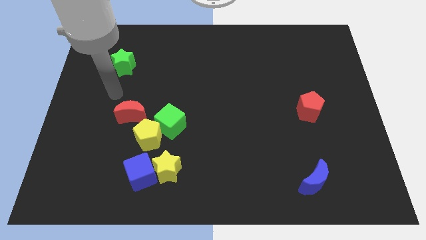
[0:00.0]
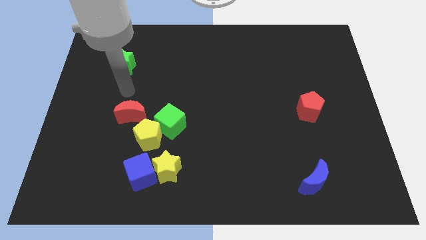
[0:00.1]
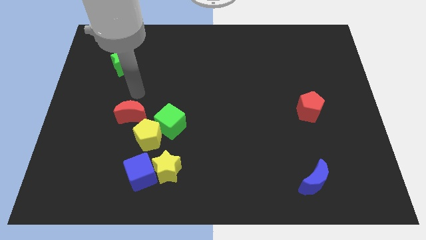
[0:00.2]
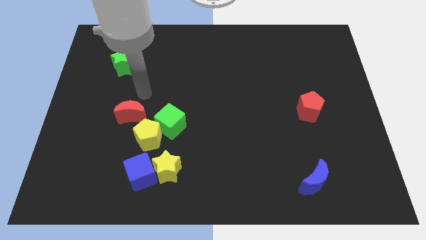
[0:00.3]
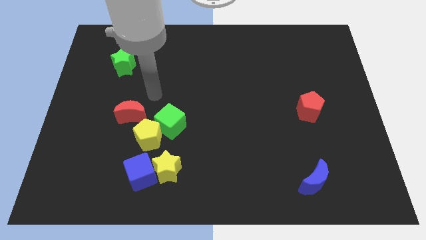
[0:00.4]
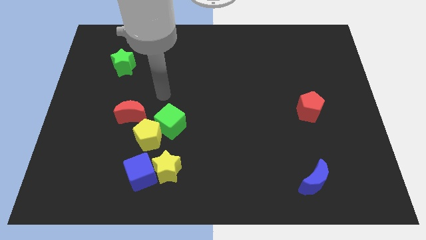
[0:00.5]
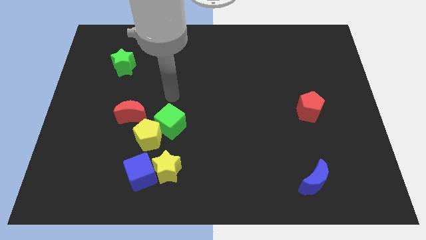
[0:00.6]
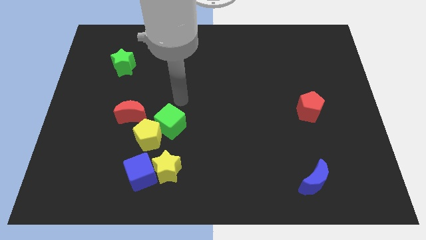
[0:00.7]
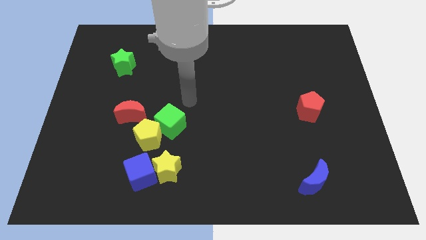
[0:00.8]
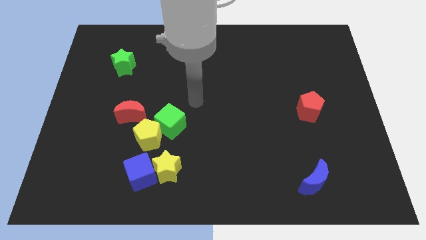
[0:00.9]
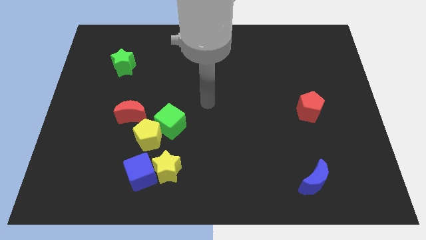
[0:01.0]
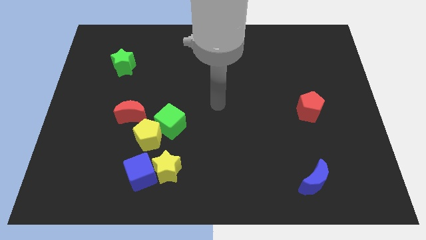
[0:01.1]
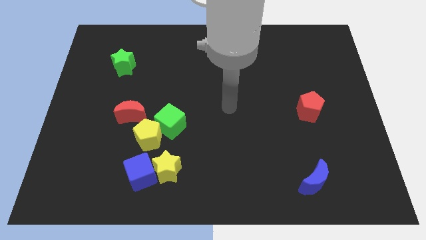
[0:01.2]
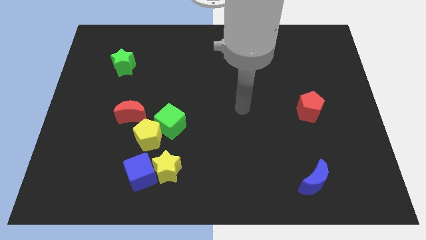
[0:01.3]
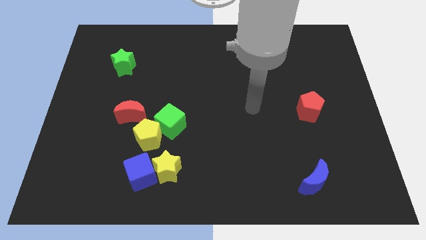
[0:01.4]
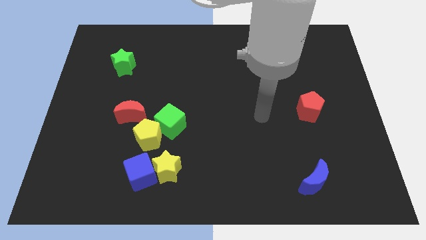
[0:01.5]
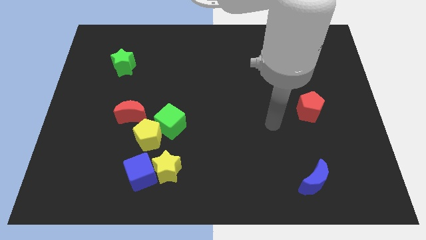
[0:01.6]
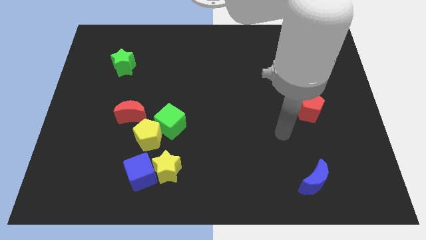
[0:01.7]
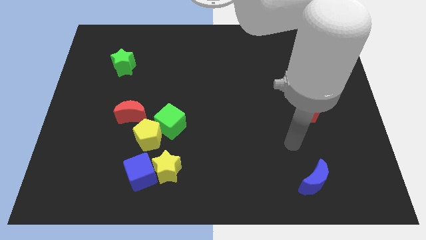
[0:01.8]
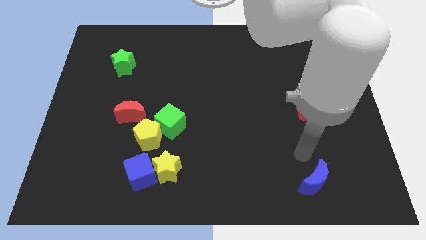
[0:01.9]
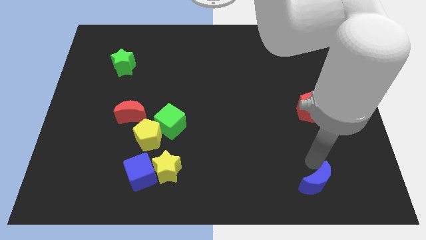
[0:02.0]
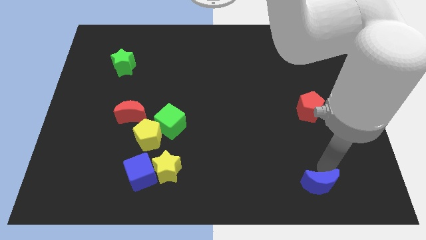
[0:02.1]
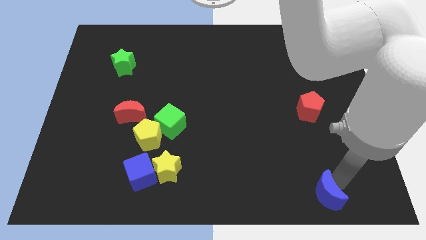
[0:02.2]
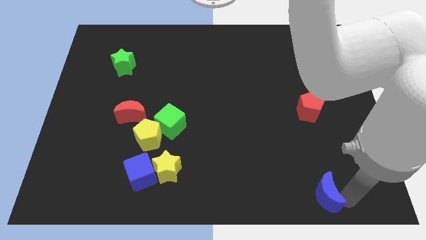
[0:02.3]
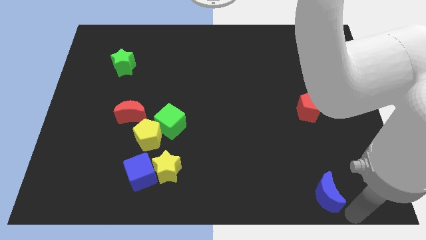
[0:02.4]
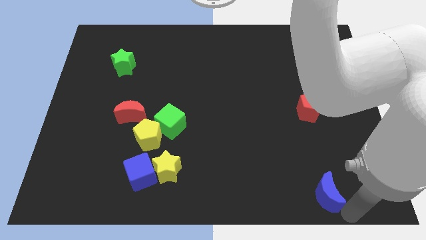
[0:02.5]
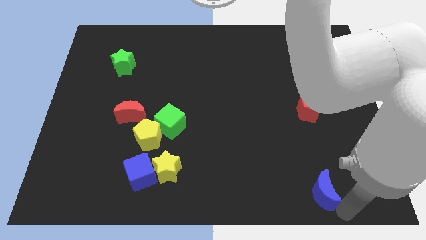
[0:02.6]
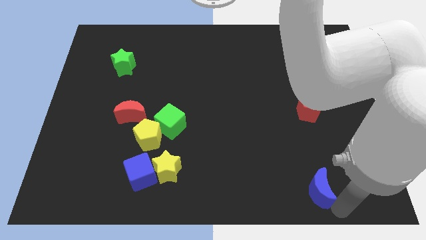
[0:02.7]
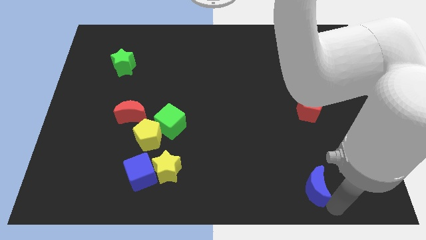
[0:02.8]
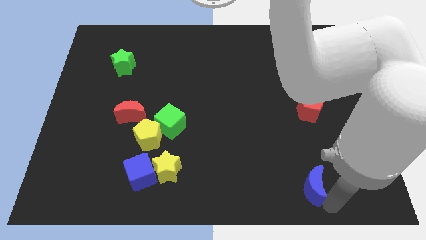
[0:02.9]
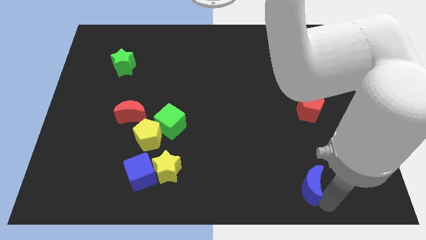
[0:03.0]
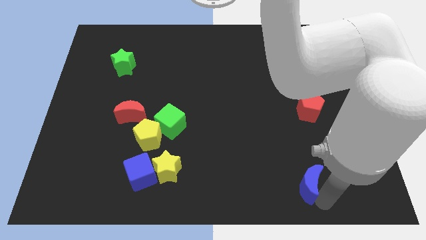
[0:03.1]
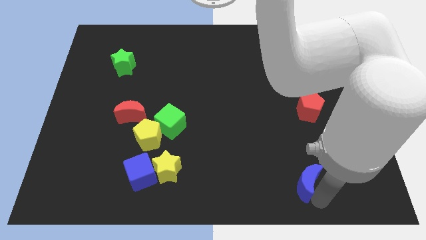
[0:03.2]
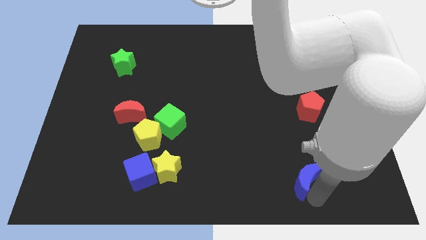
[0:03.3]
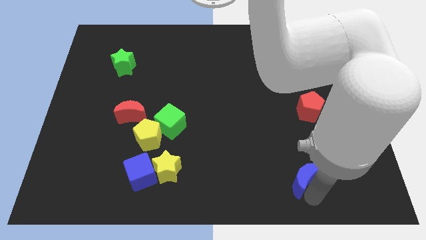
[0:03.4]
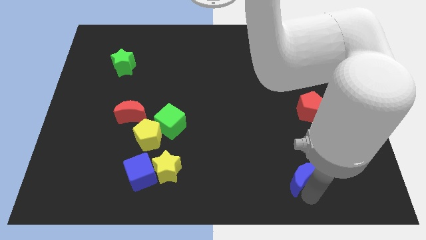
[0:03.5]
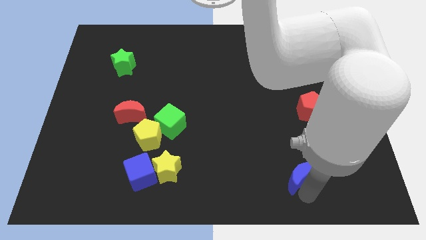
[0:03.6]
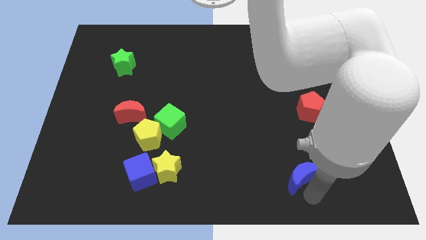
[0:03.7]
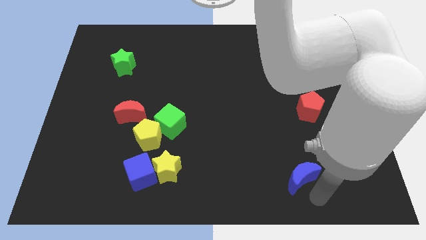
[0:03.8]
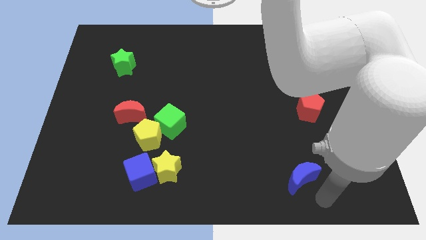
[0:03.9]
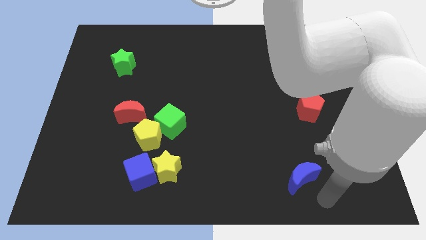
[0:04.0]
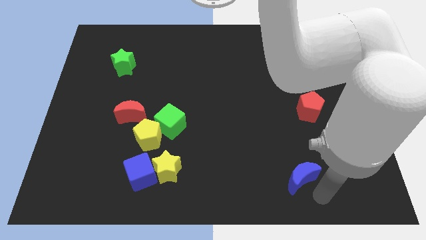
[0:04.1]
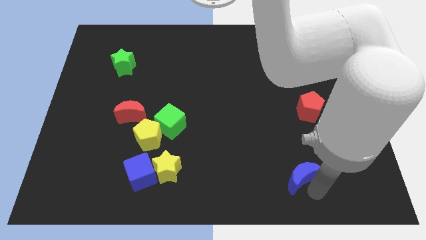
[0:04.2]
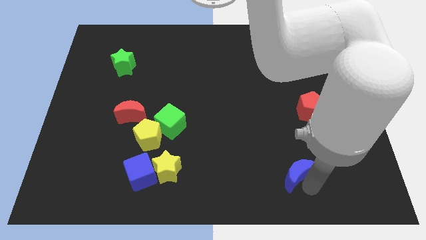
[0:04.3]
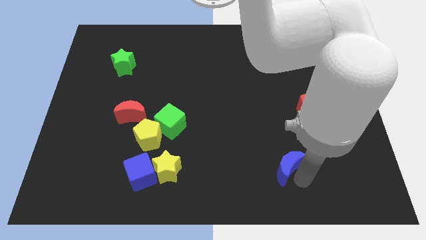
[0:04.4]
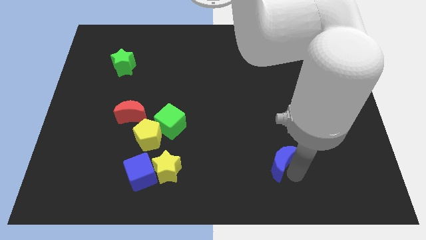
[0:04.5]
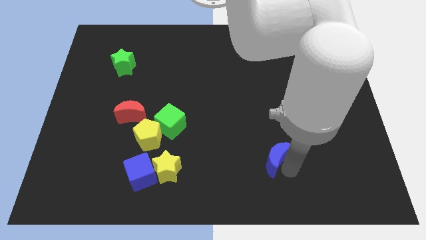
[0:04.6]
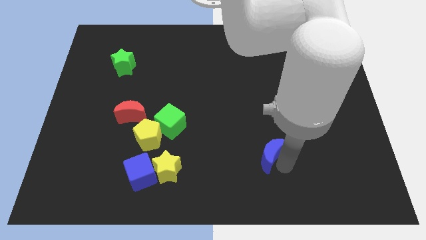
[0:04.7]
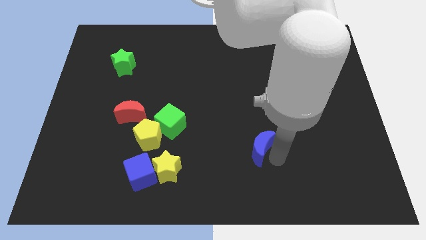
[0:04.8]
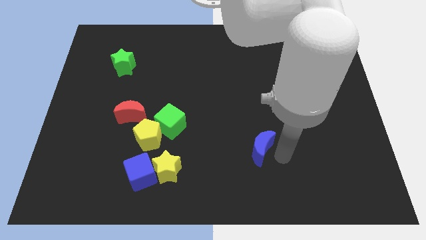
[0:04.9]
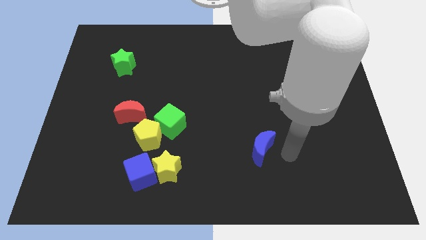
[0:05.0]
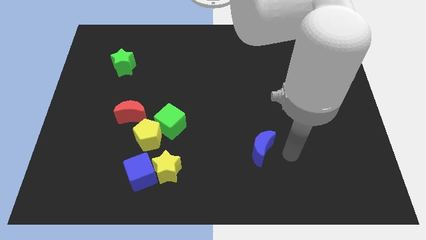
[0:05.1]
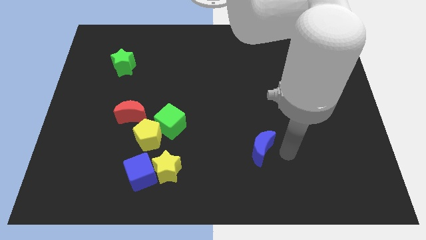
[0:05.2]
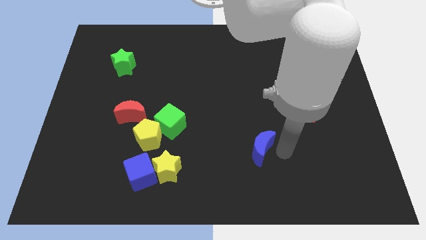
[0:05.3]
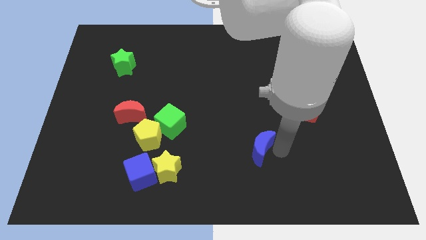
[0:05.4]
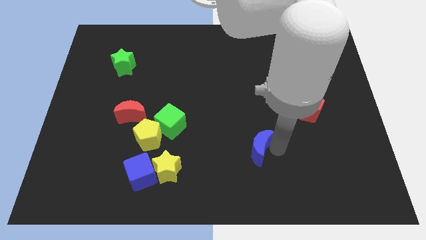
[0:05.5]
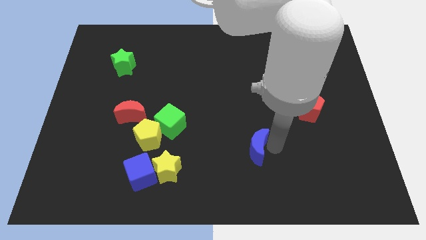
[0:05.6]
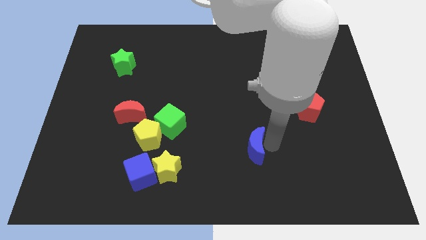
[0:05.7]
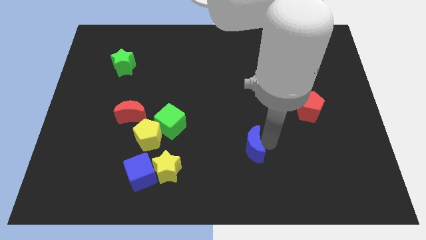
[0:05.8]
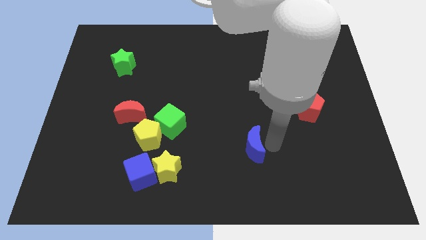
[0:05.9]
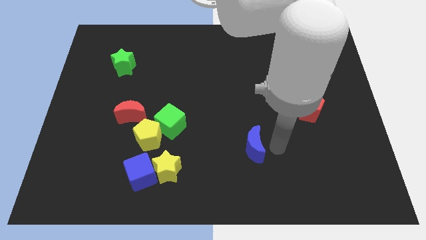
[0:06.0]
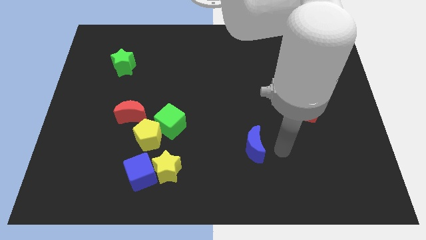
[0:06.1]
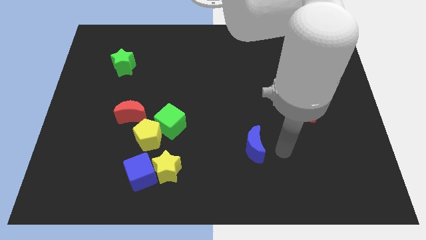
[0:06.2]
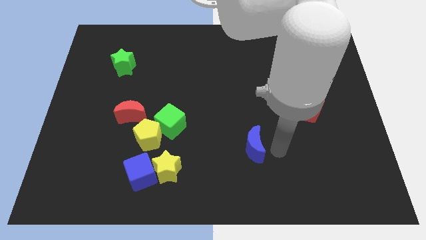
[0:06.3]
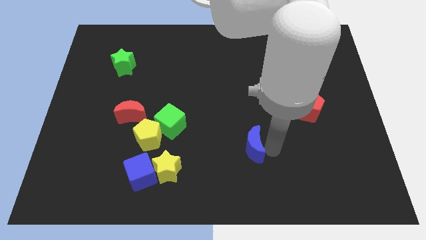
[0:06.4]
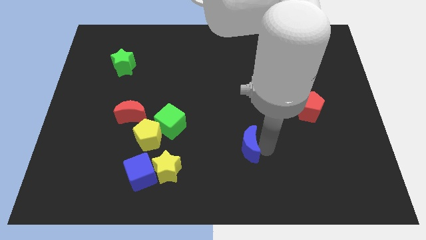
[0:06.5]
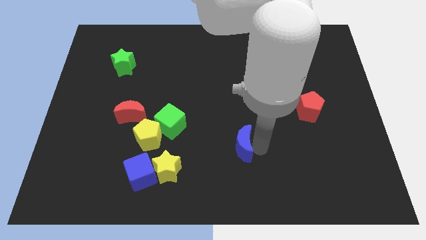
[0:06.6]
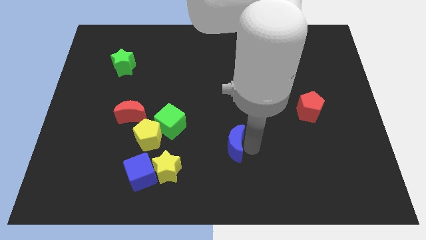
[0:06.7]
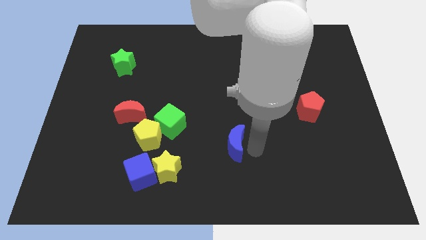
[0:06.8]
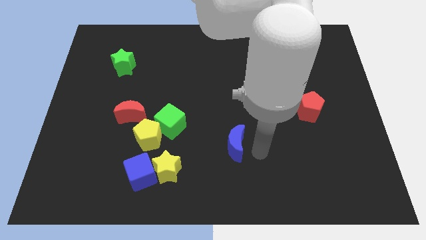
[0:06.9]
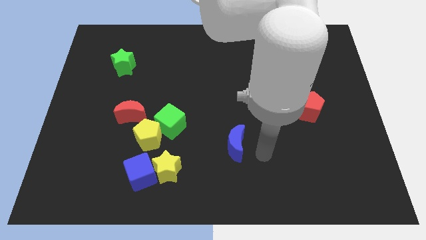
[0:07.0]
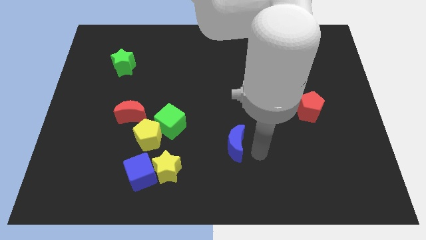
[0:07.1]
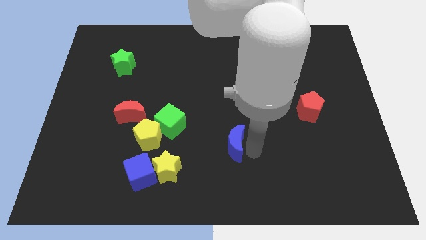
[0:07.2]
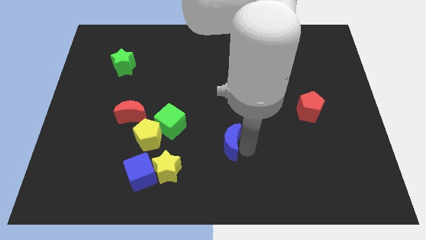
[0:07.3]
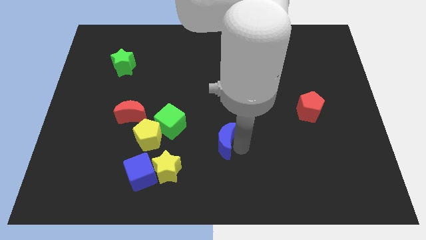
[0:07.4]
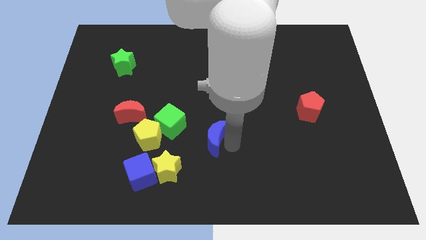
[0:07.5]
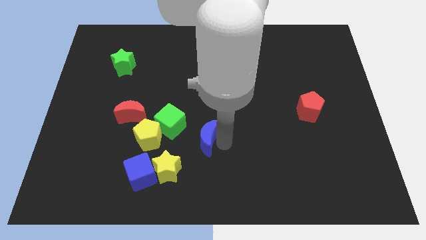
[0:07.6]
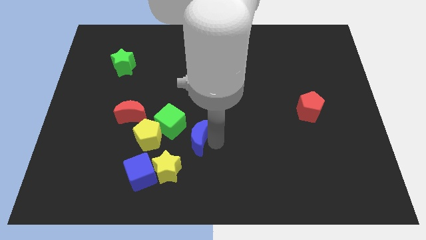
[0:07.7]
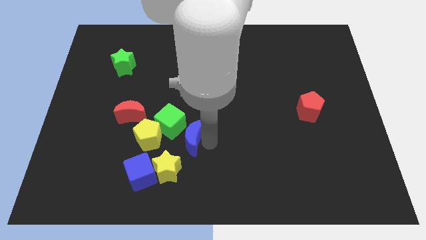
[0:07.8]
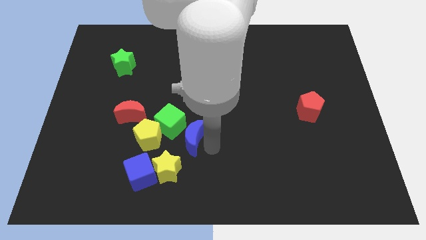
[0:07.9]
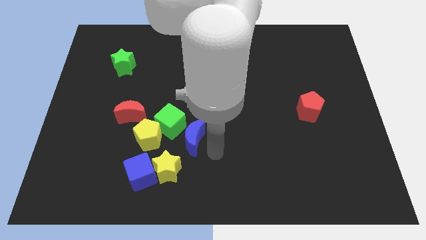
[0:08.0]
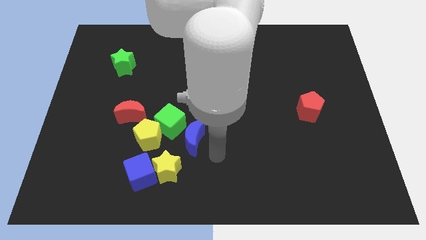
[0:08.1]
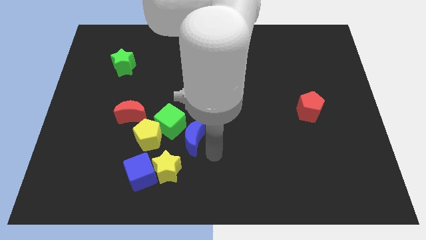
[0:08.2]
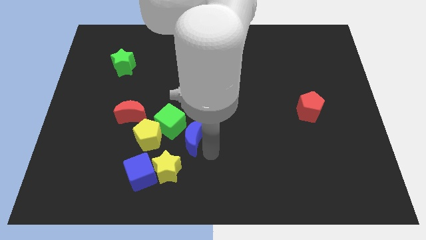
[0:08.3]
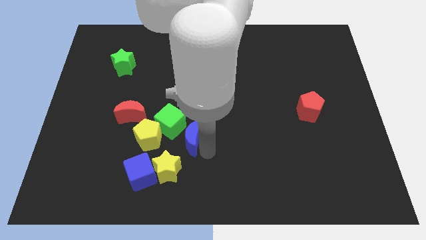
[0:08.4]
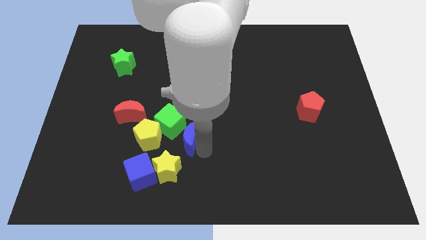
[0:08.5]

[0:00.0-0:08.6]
push the blue moon towards the green cube
